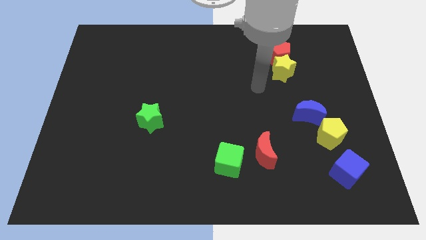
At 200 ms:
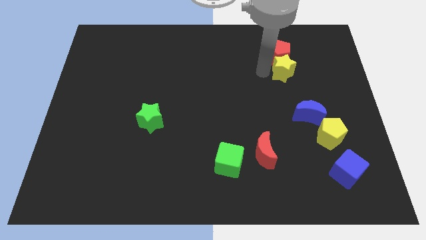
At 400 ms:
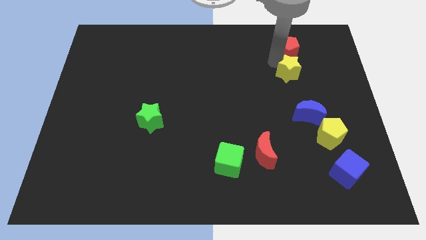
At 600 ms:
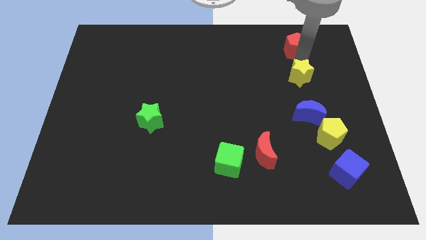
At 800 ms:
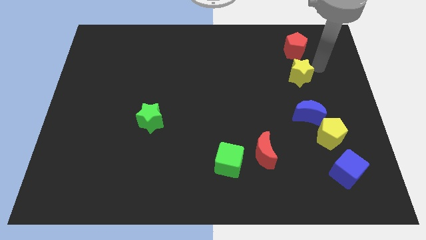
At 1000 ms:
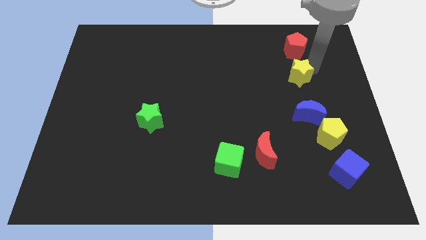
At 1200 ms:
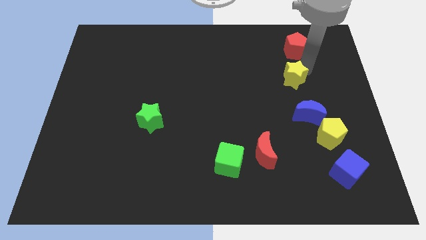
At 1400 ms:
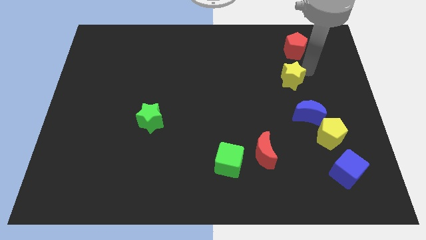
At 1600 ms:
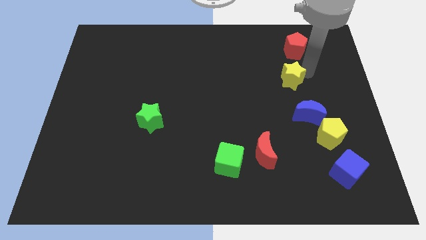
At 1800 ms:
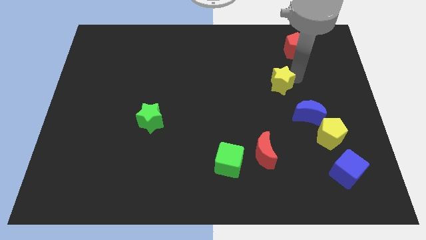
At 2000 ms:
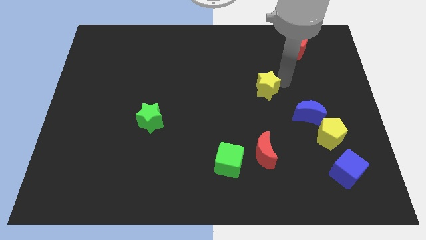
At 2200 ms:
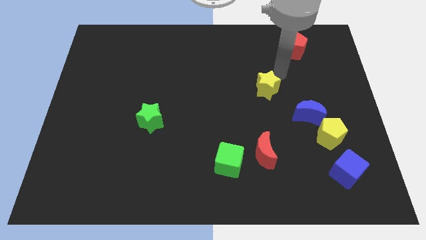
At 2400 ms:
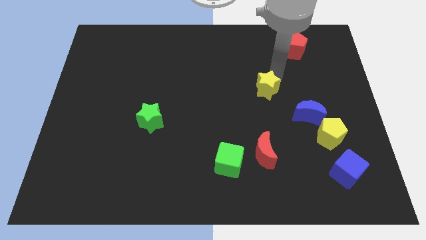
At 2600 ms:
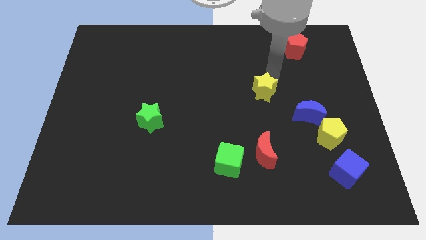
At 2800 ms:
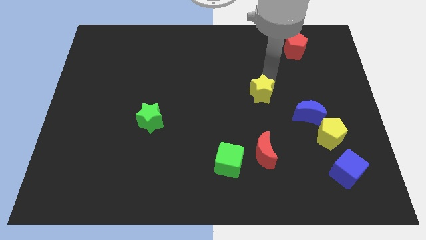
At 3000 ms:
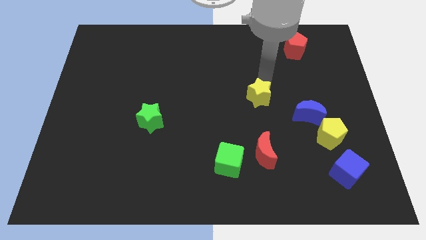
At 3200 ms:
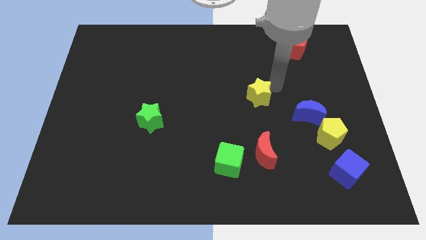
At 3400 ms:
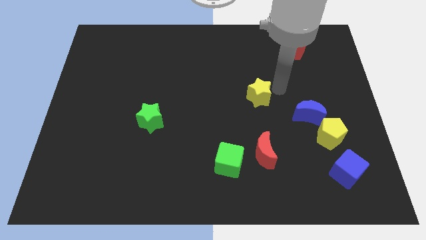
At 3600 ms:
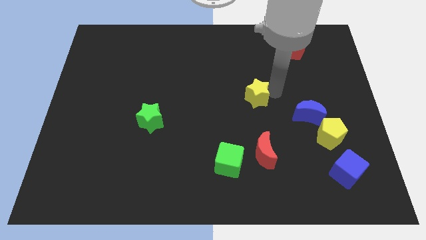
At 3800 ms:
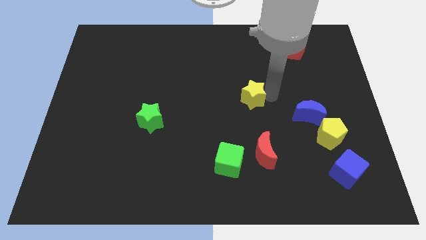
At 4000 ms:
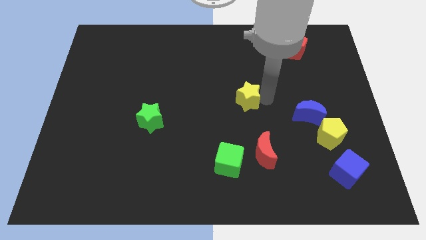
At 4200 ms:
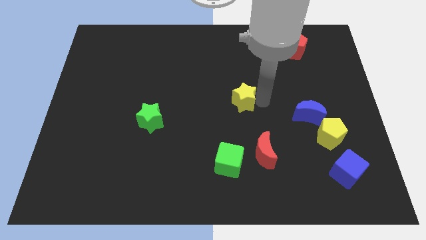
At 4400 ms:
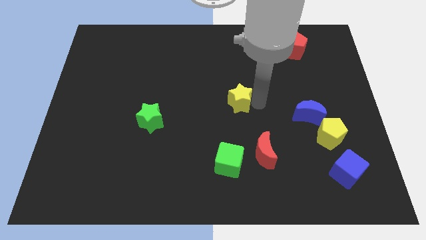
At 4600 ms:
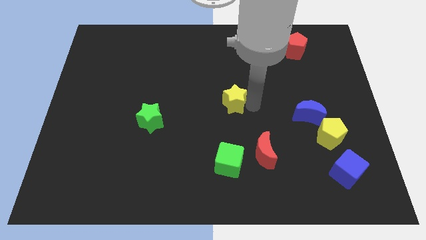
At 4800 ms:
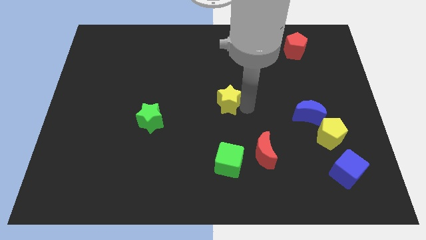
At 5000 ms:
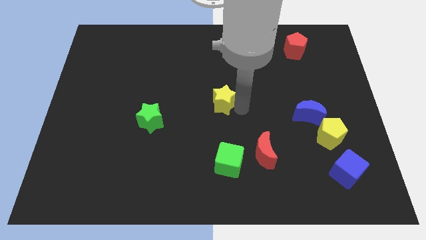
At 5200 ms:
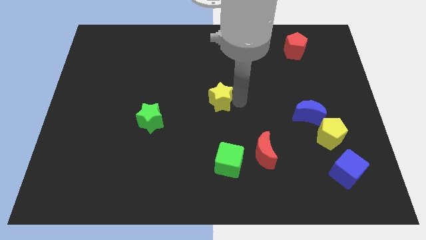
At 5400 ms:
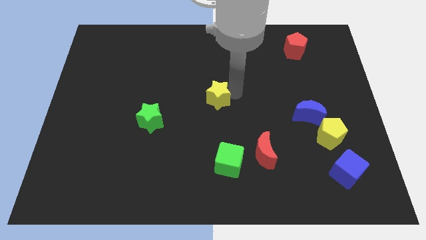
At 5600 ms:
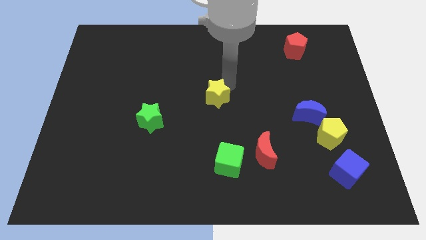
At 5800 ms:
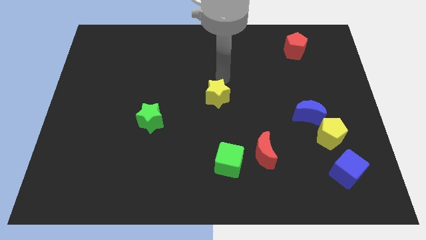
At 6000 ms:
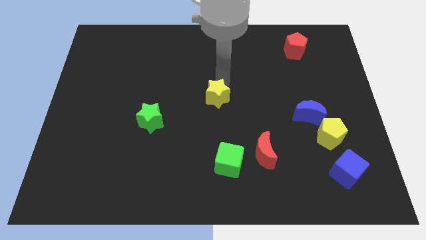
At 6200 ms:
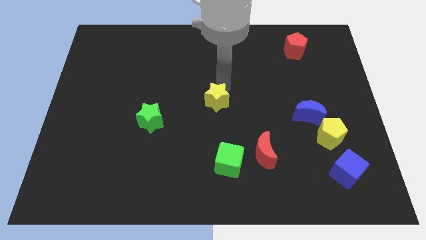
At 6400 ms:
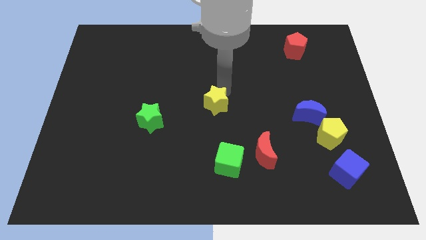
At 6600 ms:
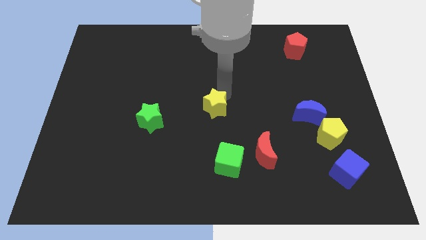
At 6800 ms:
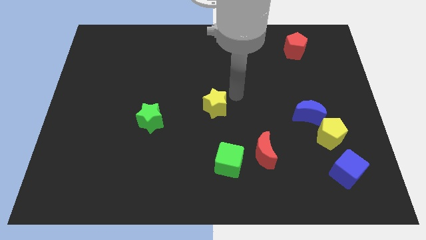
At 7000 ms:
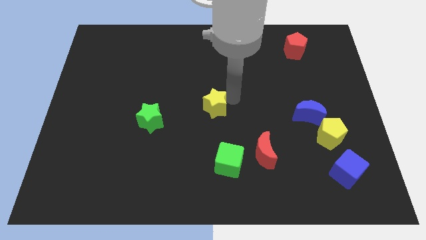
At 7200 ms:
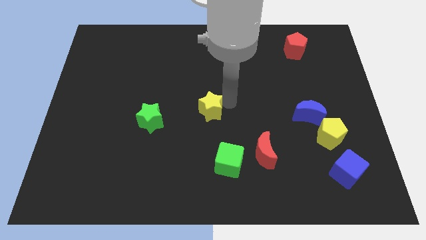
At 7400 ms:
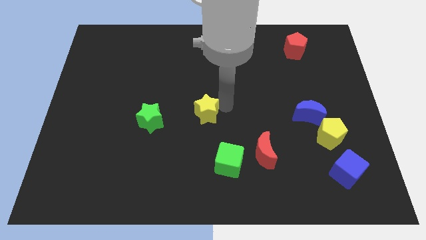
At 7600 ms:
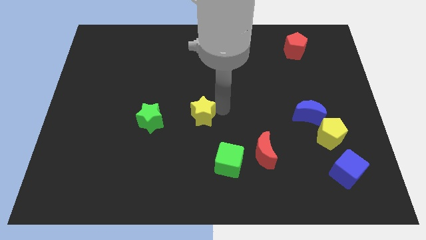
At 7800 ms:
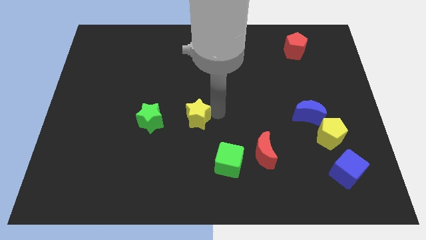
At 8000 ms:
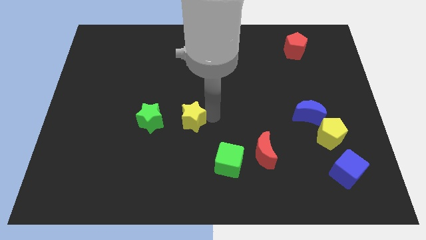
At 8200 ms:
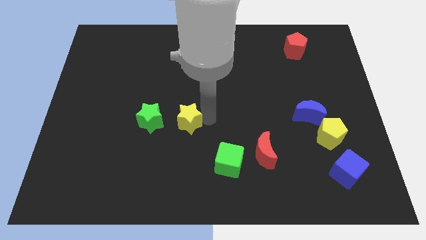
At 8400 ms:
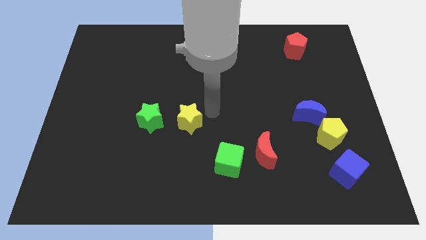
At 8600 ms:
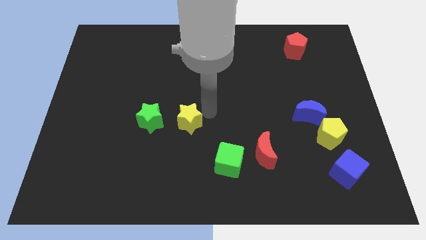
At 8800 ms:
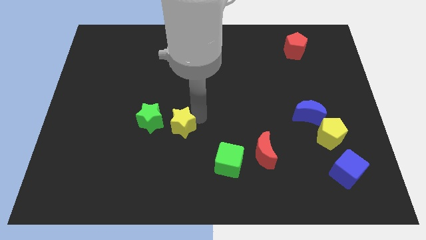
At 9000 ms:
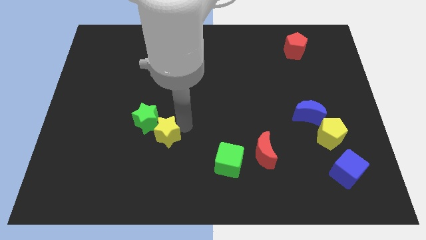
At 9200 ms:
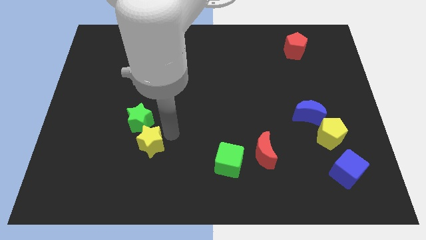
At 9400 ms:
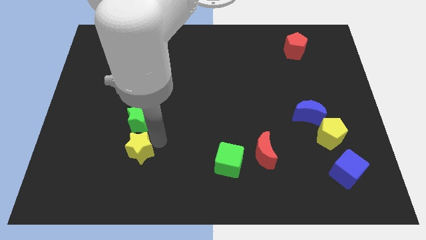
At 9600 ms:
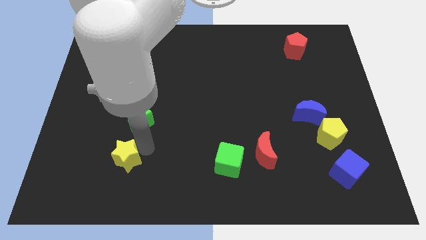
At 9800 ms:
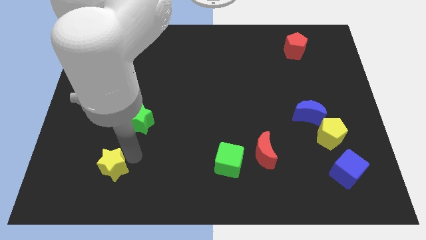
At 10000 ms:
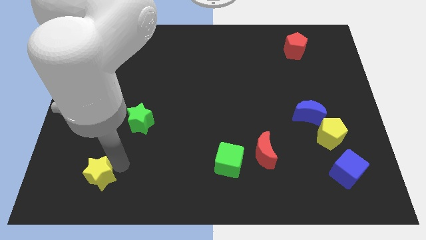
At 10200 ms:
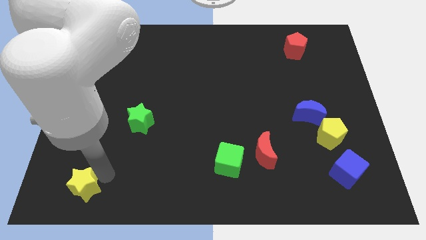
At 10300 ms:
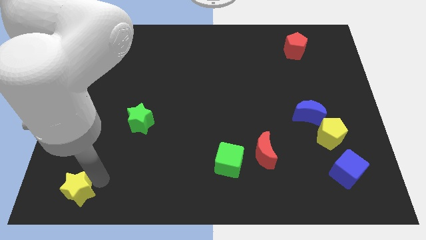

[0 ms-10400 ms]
slide the yellow star to the bottom left of the board

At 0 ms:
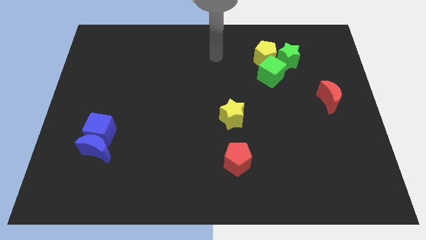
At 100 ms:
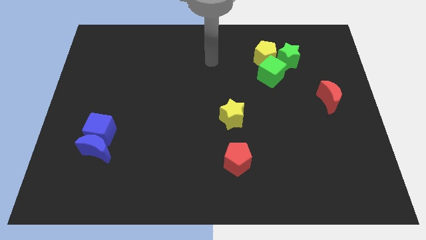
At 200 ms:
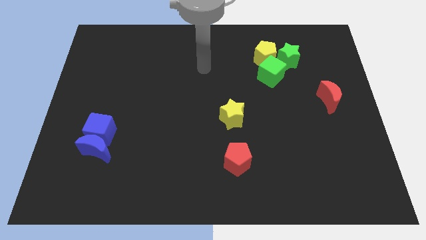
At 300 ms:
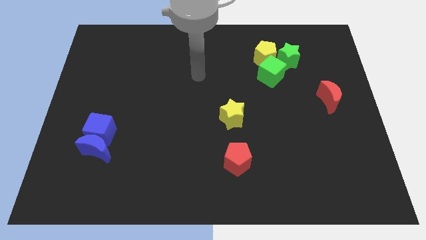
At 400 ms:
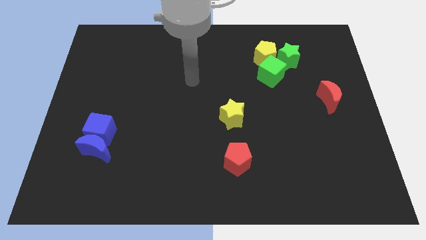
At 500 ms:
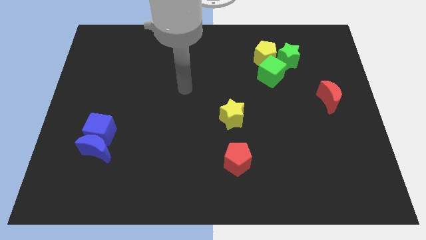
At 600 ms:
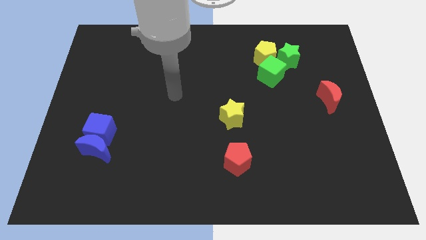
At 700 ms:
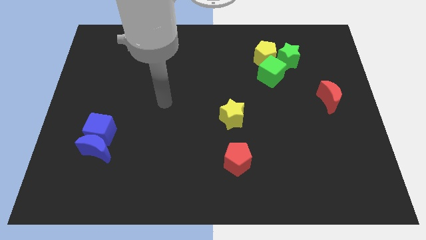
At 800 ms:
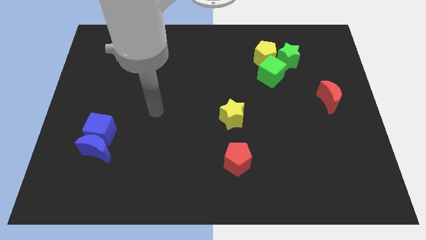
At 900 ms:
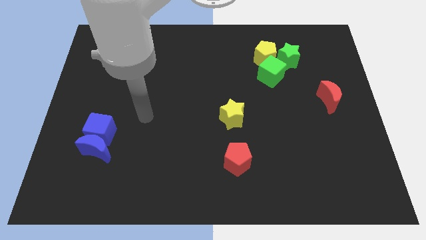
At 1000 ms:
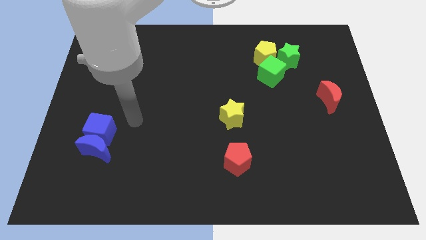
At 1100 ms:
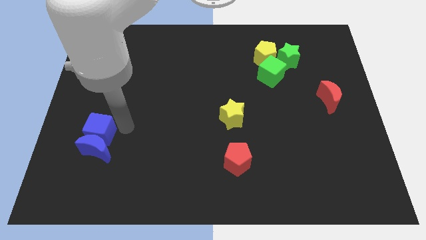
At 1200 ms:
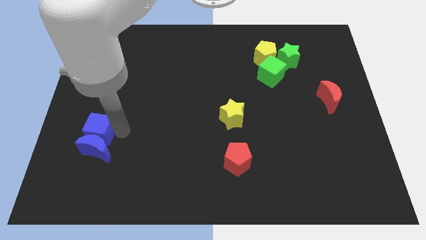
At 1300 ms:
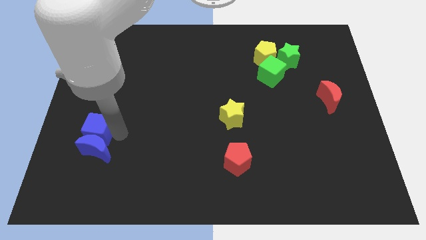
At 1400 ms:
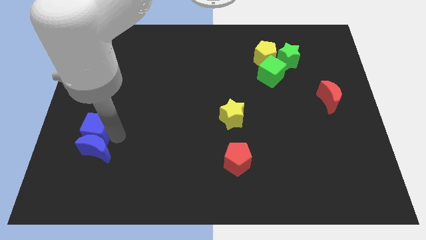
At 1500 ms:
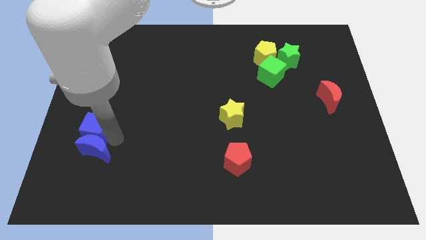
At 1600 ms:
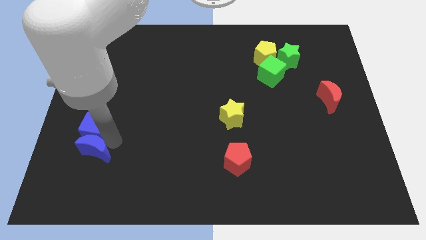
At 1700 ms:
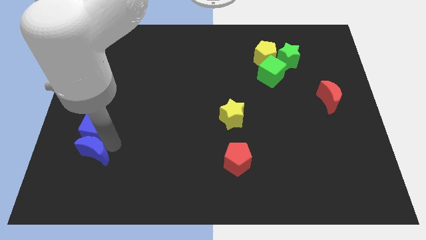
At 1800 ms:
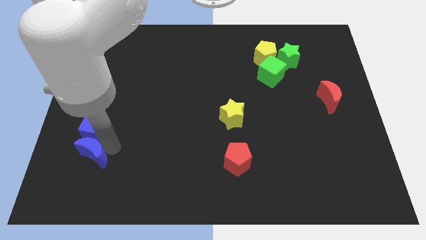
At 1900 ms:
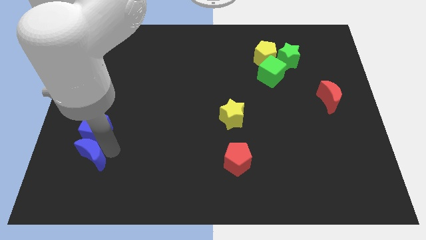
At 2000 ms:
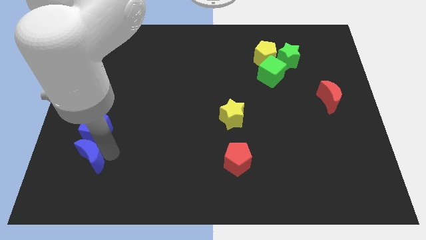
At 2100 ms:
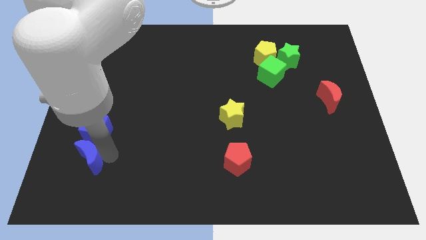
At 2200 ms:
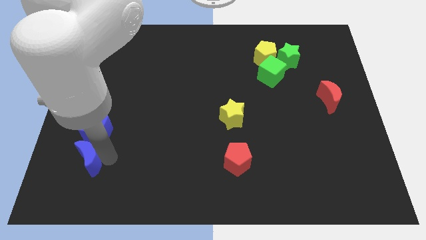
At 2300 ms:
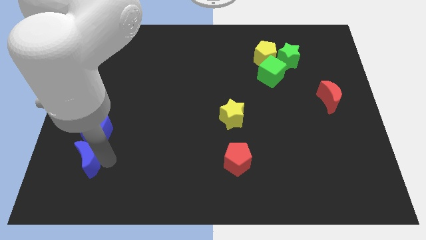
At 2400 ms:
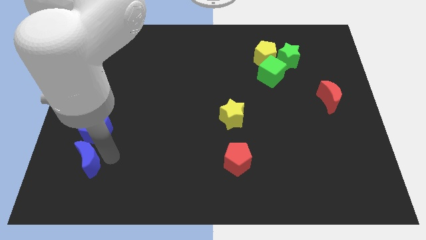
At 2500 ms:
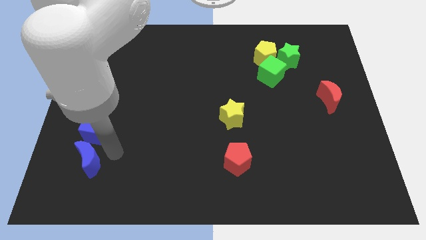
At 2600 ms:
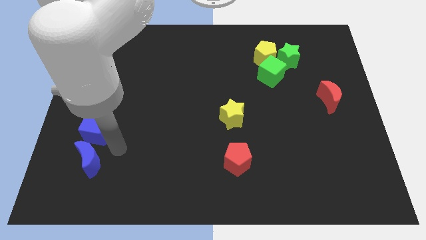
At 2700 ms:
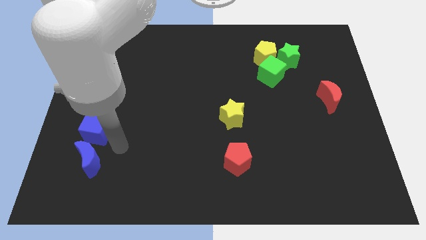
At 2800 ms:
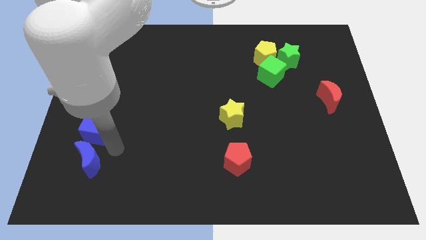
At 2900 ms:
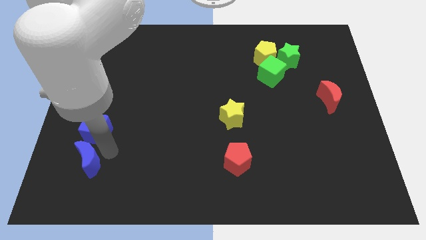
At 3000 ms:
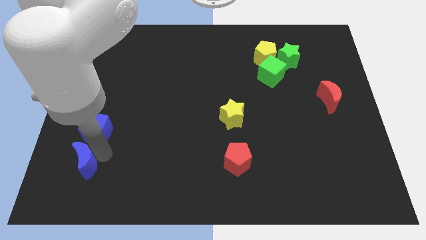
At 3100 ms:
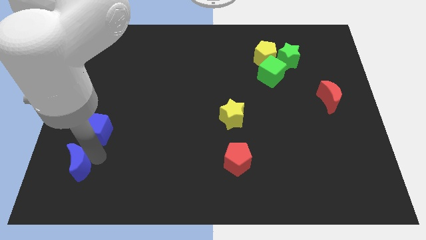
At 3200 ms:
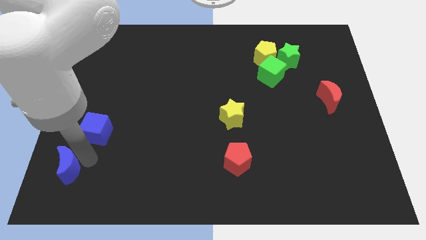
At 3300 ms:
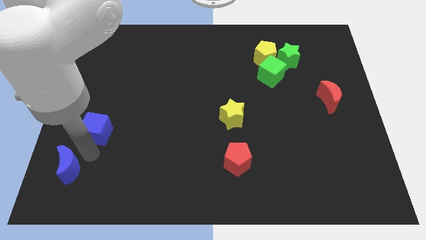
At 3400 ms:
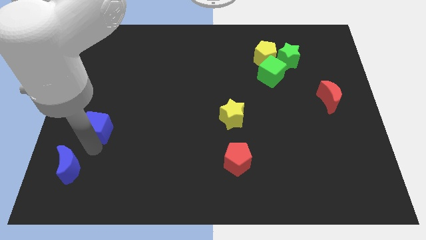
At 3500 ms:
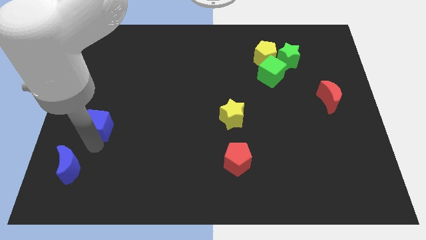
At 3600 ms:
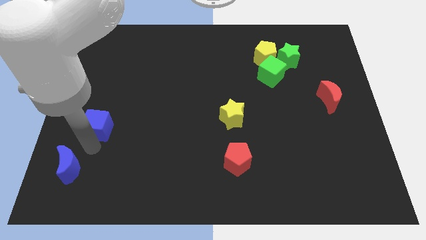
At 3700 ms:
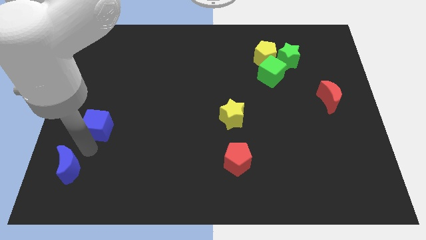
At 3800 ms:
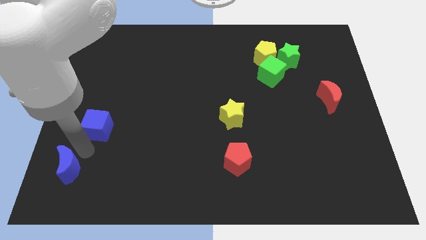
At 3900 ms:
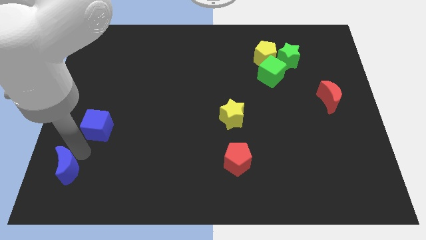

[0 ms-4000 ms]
push the blue moon to the lower left corner
